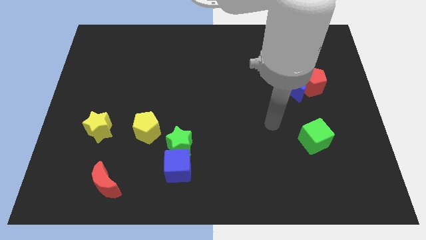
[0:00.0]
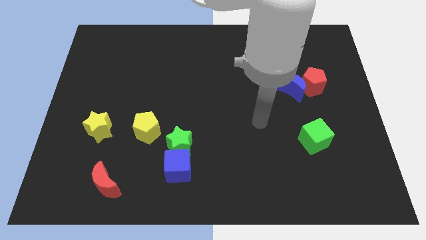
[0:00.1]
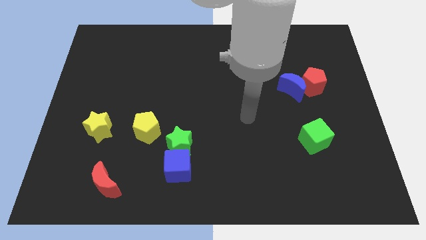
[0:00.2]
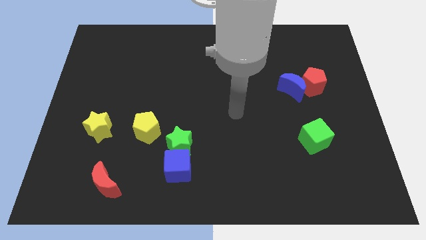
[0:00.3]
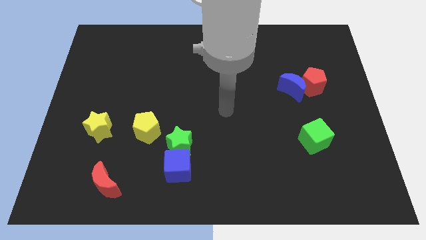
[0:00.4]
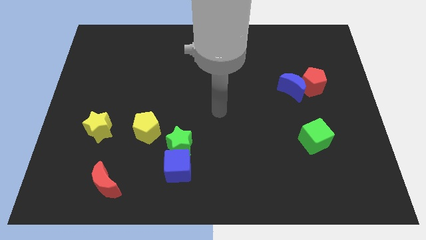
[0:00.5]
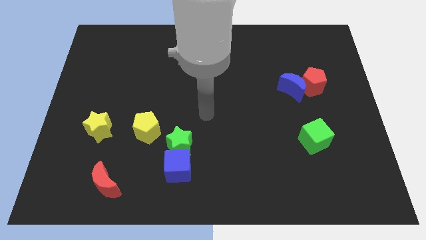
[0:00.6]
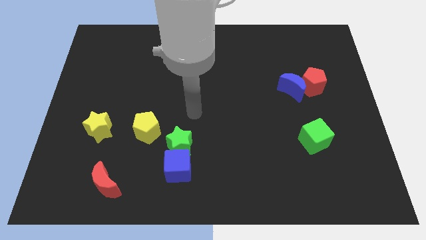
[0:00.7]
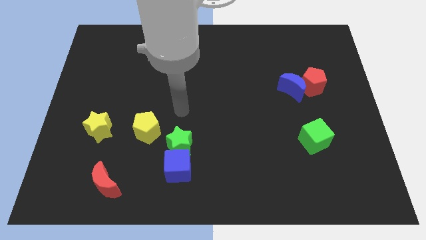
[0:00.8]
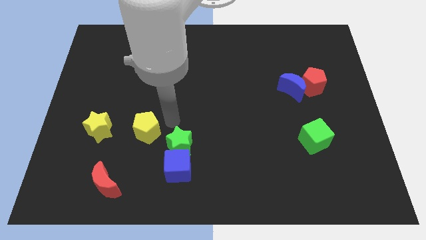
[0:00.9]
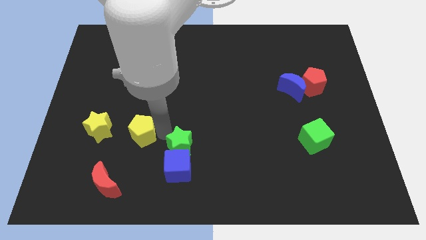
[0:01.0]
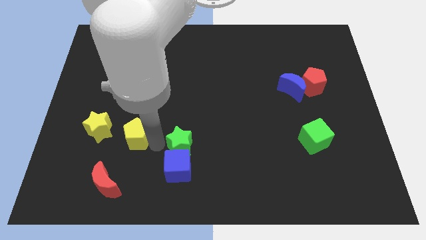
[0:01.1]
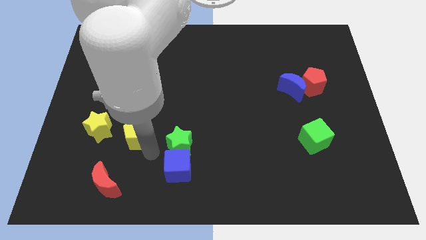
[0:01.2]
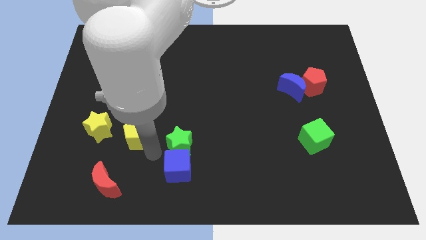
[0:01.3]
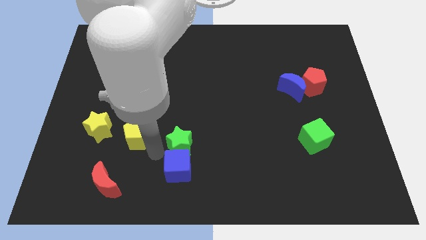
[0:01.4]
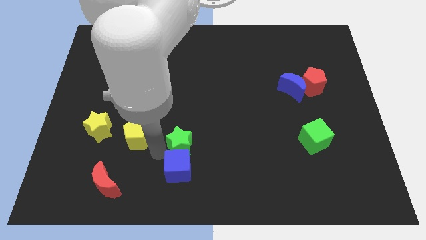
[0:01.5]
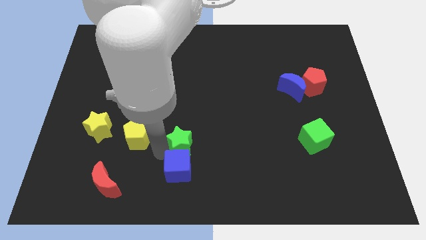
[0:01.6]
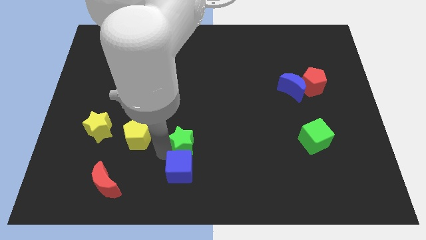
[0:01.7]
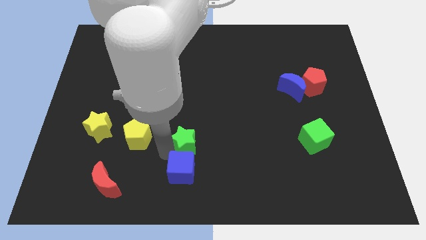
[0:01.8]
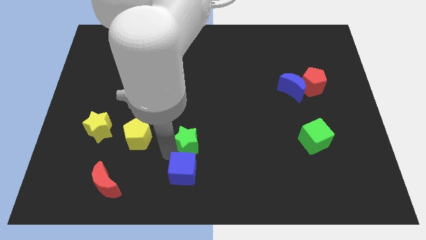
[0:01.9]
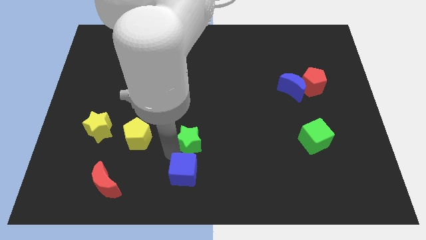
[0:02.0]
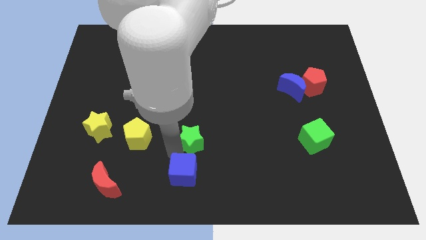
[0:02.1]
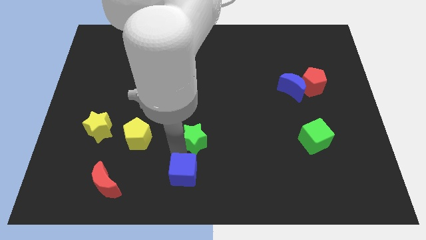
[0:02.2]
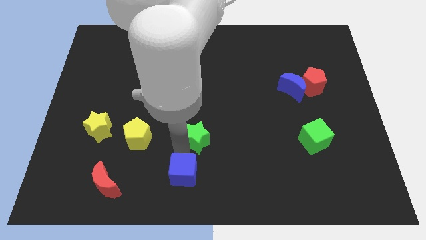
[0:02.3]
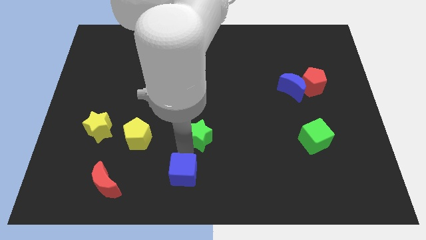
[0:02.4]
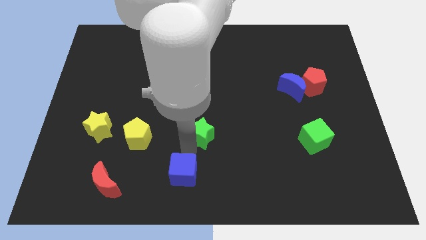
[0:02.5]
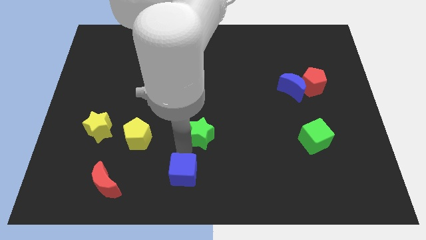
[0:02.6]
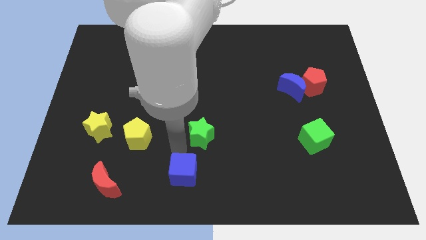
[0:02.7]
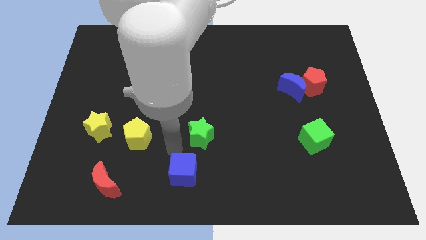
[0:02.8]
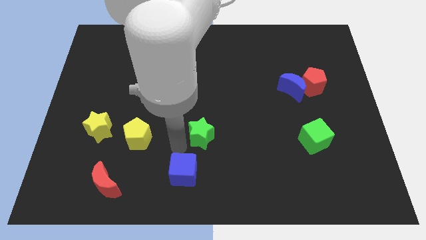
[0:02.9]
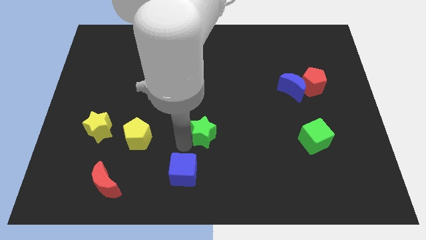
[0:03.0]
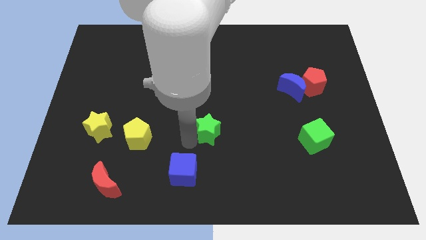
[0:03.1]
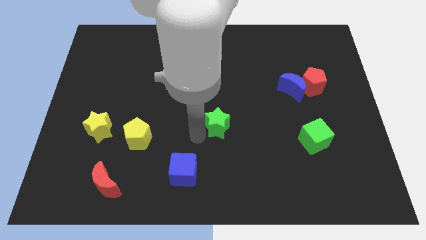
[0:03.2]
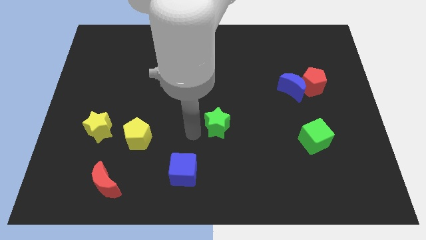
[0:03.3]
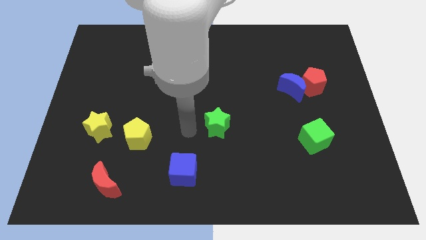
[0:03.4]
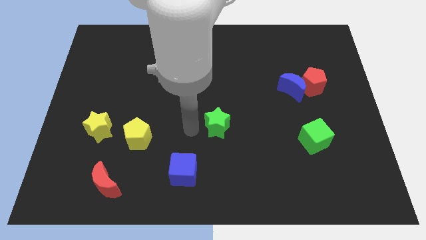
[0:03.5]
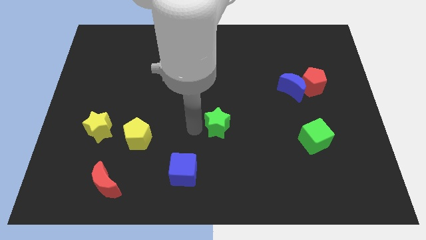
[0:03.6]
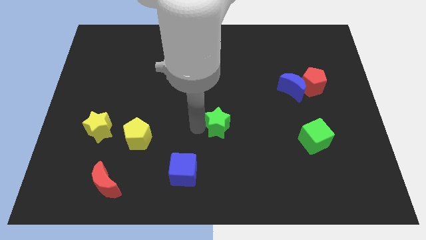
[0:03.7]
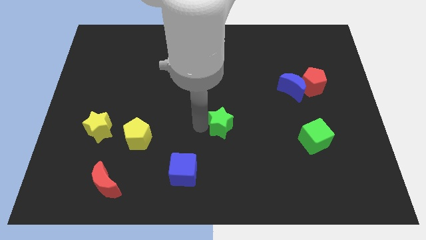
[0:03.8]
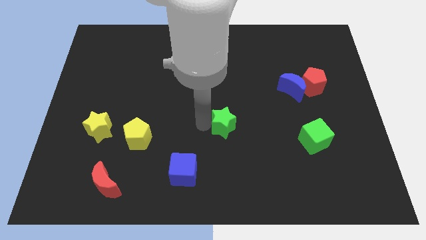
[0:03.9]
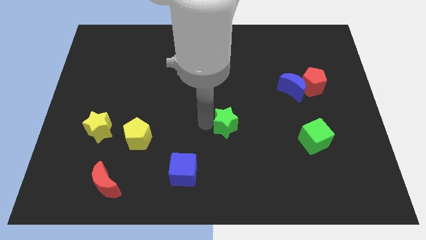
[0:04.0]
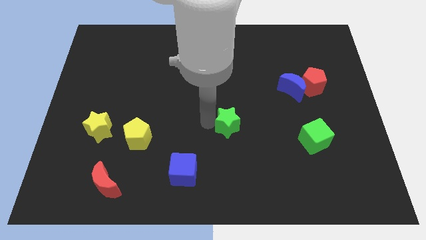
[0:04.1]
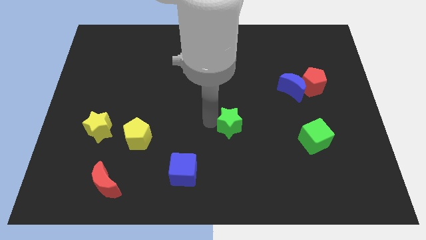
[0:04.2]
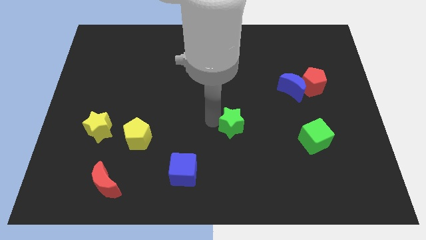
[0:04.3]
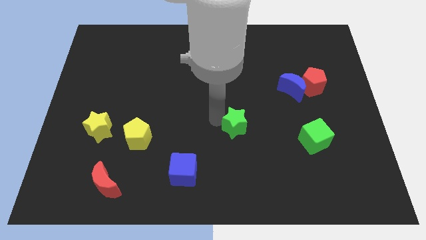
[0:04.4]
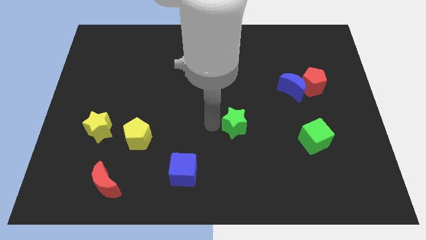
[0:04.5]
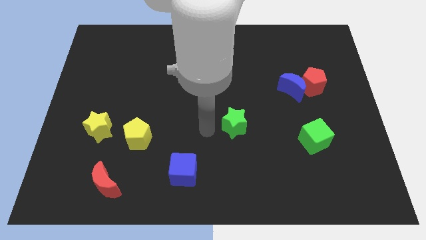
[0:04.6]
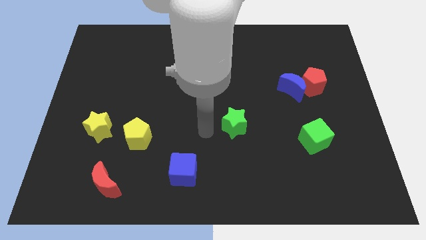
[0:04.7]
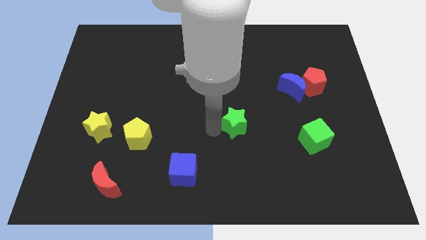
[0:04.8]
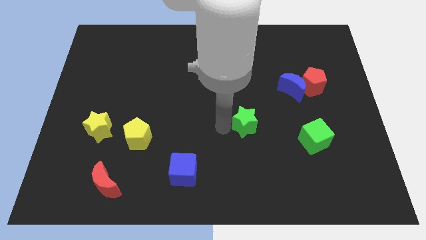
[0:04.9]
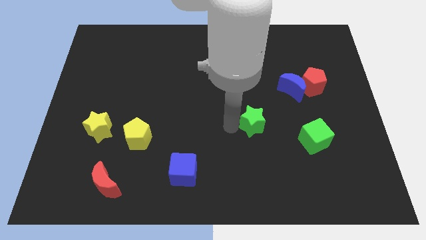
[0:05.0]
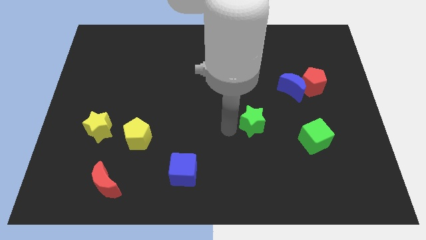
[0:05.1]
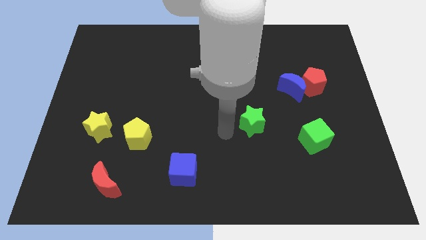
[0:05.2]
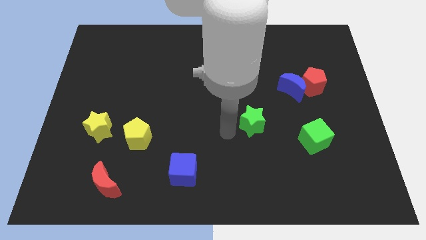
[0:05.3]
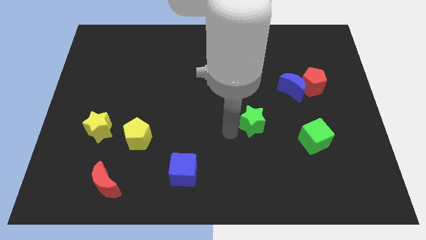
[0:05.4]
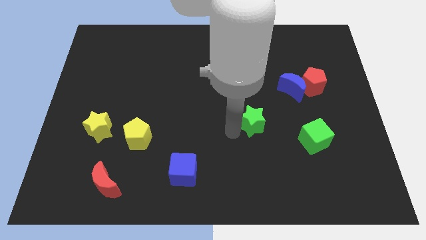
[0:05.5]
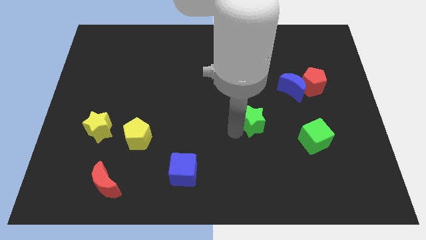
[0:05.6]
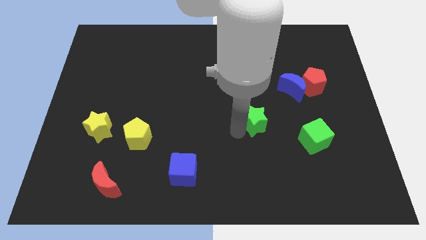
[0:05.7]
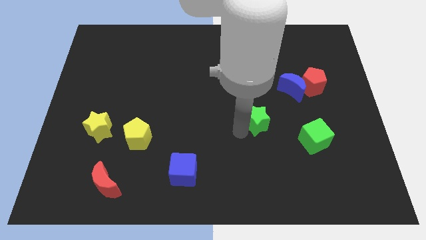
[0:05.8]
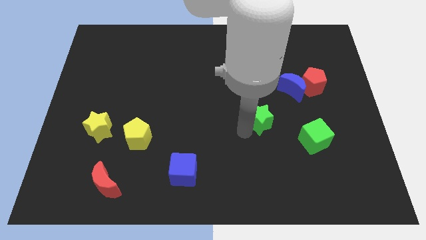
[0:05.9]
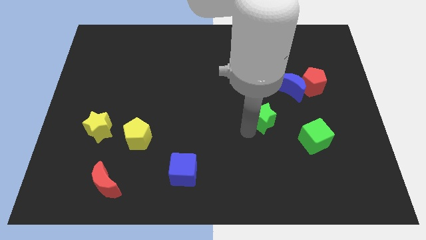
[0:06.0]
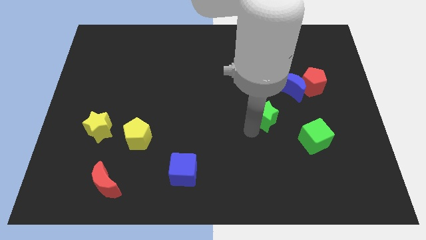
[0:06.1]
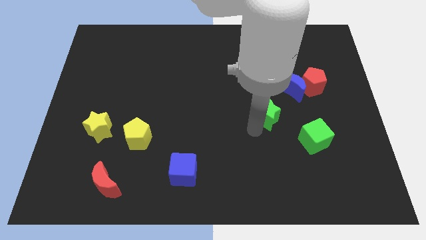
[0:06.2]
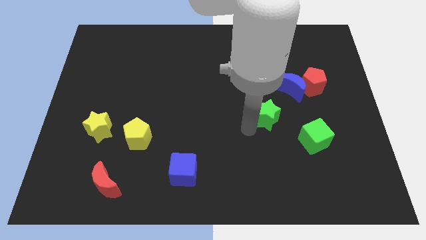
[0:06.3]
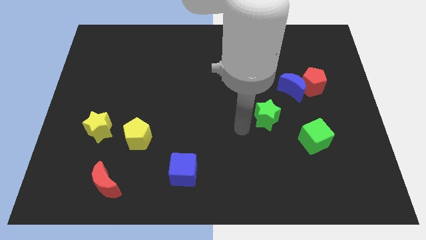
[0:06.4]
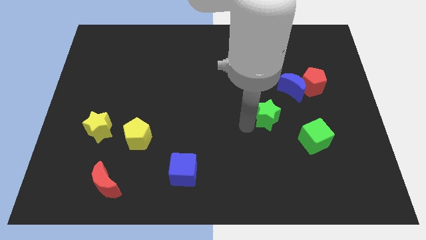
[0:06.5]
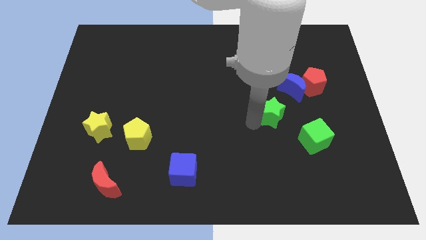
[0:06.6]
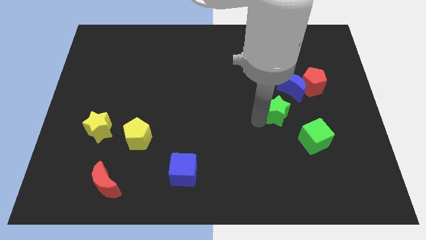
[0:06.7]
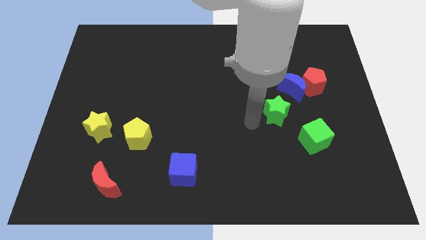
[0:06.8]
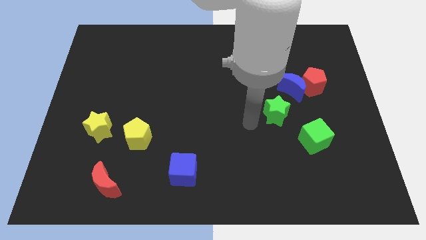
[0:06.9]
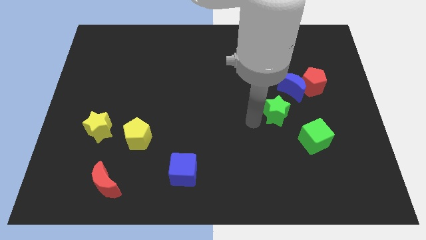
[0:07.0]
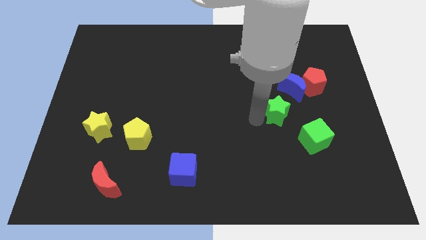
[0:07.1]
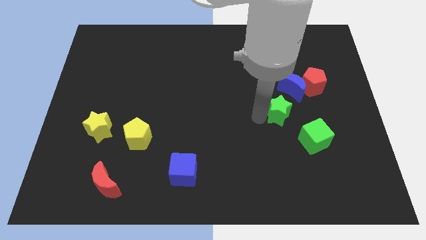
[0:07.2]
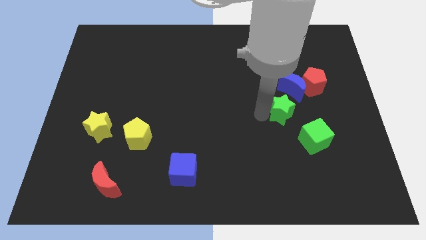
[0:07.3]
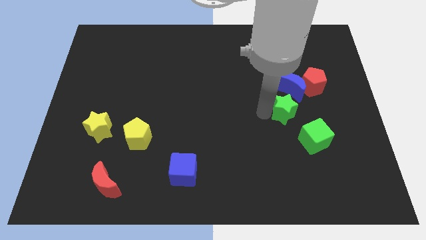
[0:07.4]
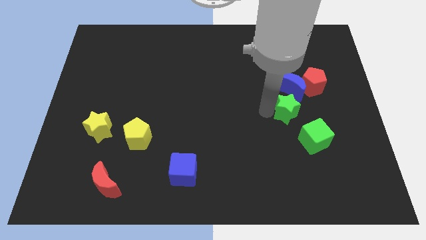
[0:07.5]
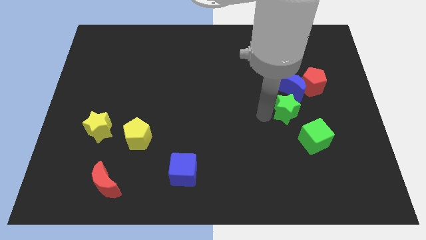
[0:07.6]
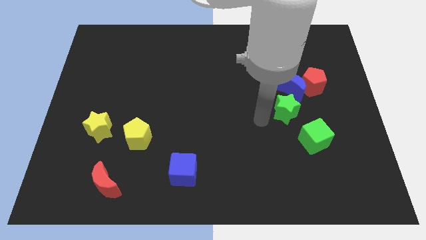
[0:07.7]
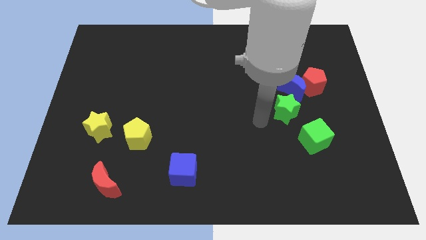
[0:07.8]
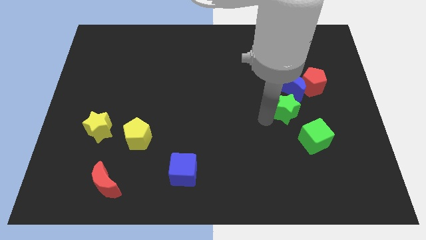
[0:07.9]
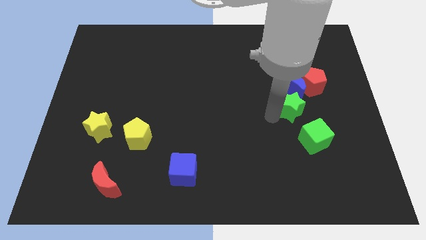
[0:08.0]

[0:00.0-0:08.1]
move the green star to the top of the green cube

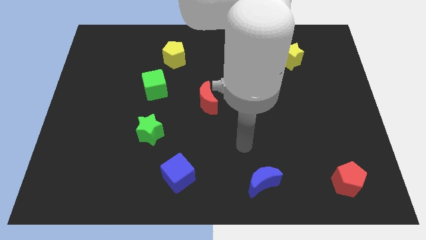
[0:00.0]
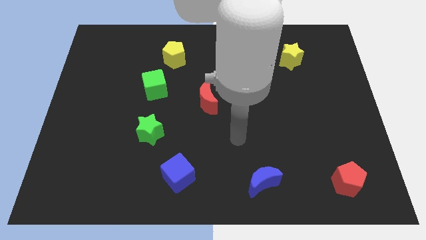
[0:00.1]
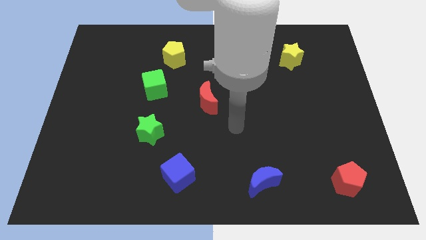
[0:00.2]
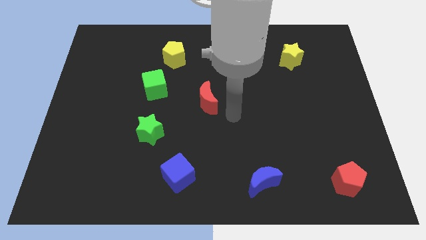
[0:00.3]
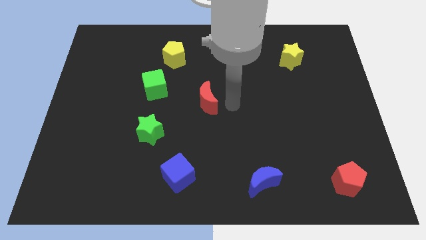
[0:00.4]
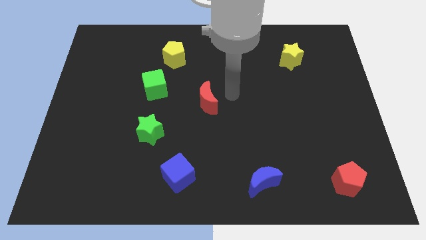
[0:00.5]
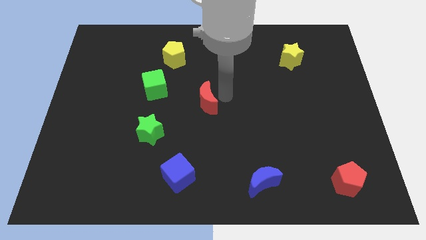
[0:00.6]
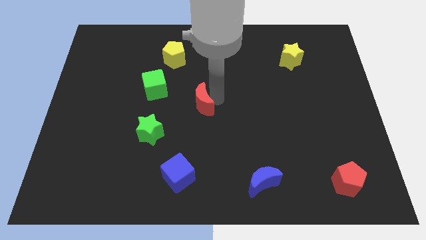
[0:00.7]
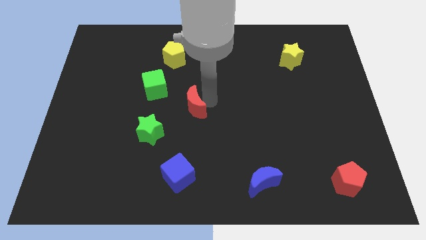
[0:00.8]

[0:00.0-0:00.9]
slide the red moon to the top right of the green star
